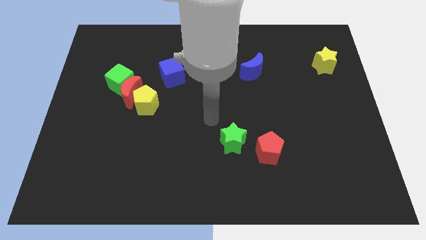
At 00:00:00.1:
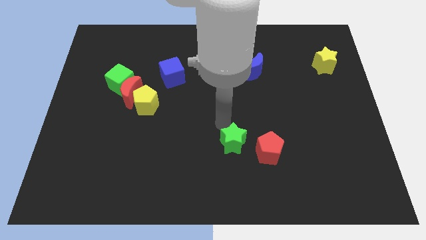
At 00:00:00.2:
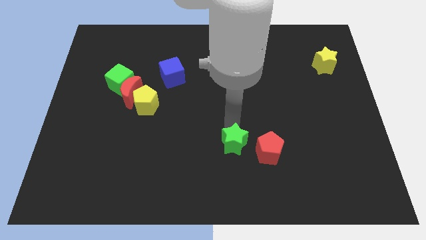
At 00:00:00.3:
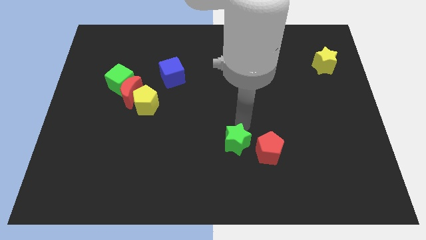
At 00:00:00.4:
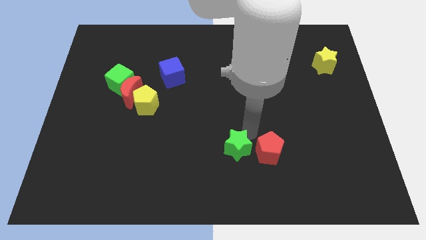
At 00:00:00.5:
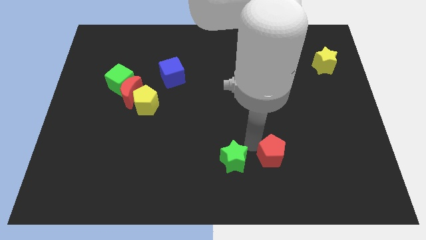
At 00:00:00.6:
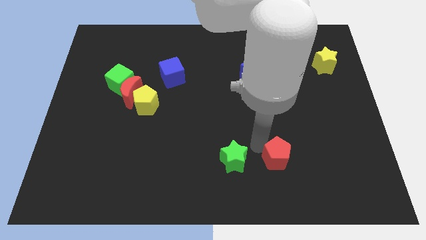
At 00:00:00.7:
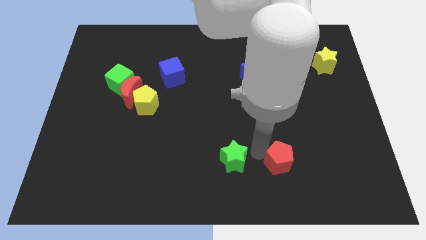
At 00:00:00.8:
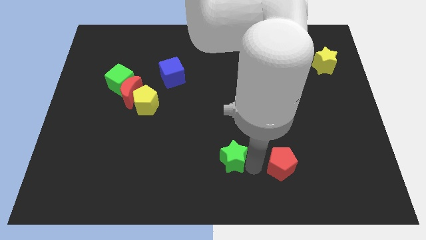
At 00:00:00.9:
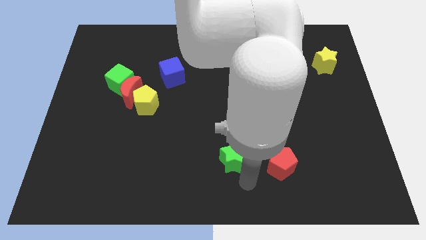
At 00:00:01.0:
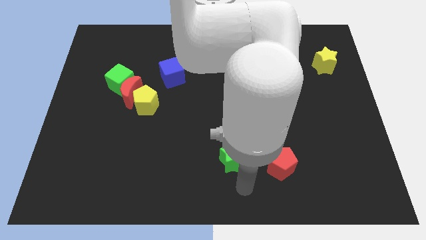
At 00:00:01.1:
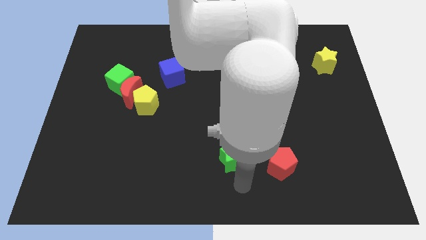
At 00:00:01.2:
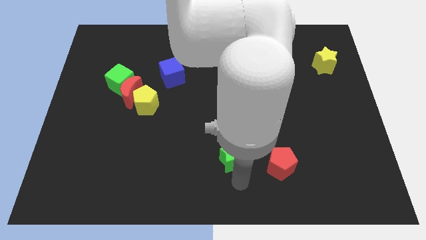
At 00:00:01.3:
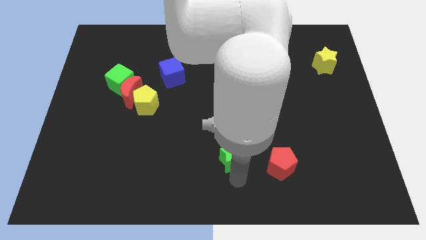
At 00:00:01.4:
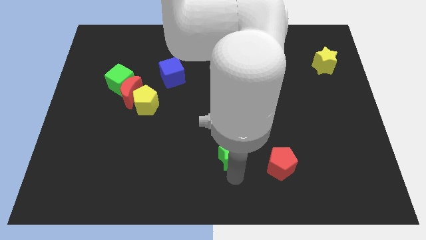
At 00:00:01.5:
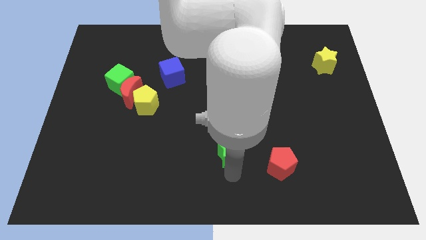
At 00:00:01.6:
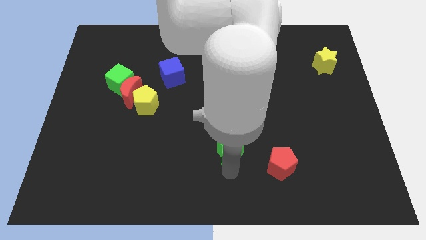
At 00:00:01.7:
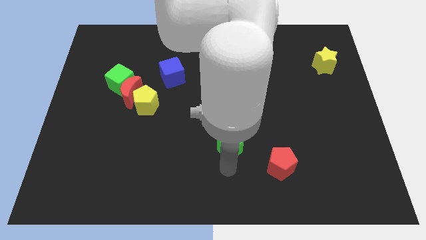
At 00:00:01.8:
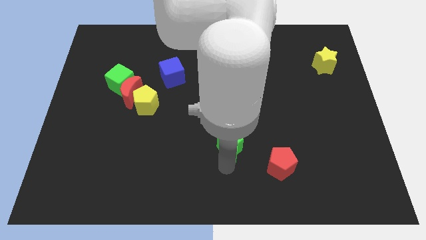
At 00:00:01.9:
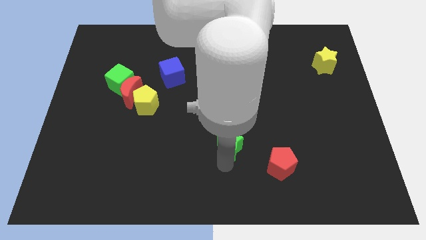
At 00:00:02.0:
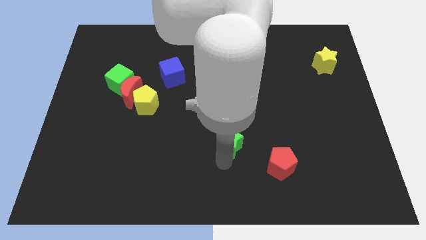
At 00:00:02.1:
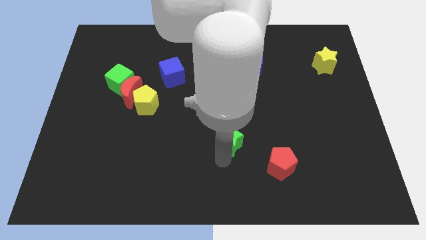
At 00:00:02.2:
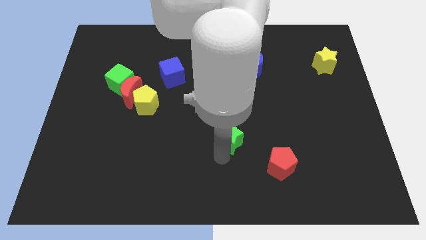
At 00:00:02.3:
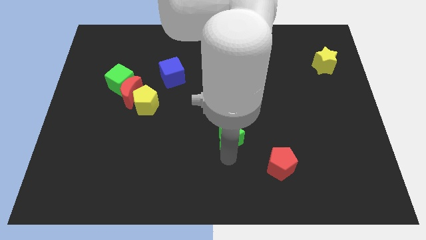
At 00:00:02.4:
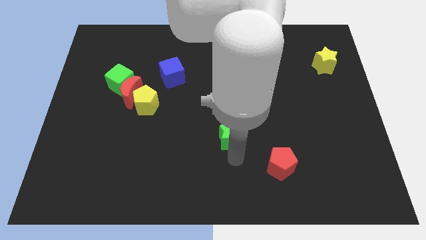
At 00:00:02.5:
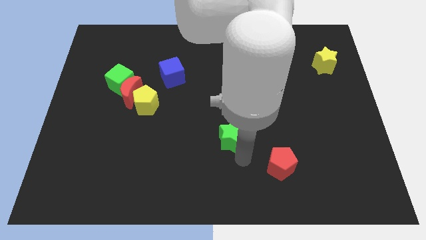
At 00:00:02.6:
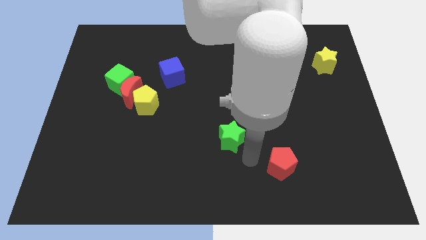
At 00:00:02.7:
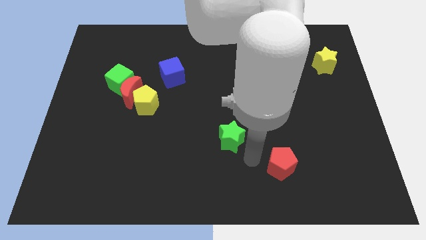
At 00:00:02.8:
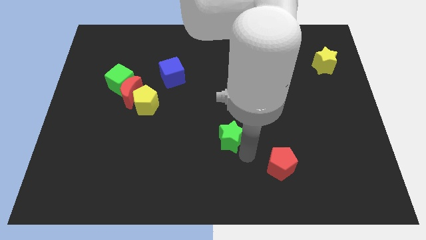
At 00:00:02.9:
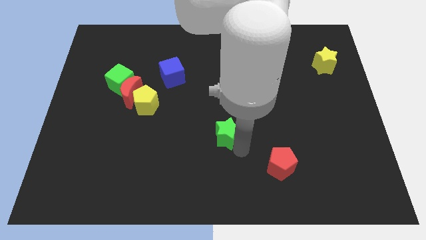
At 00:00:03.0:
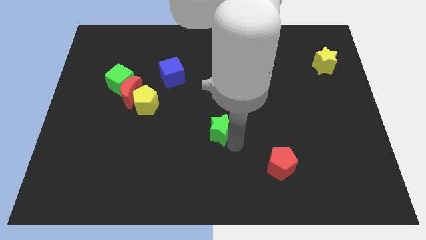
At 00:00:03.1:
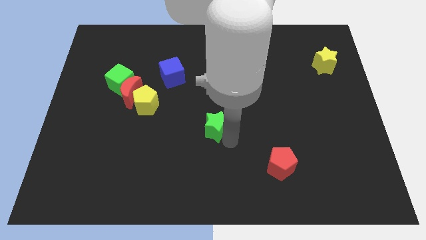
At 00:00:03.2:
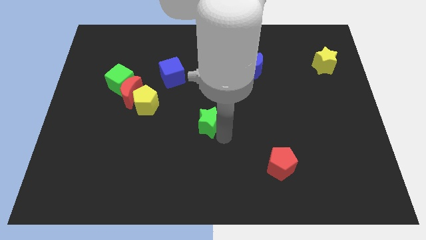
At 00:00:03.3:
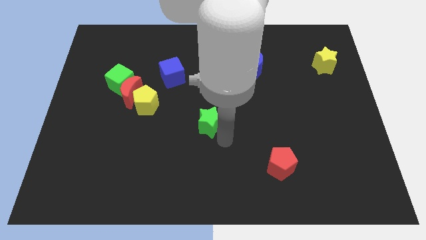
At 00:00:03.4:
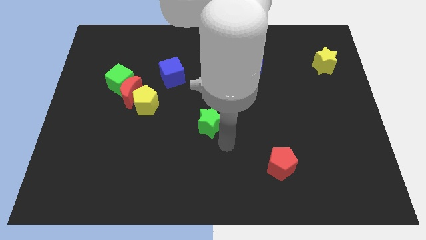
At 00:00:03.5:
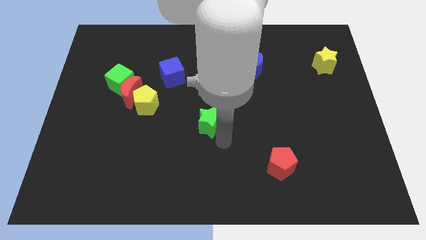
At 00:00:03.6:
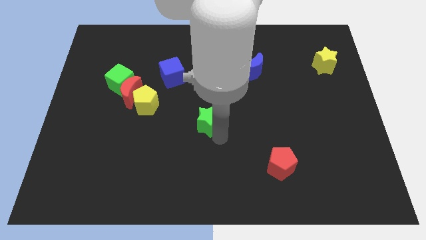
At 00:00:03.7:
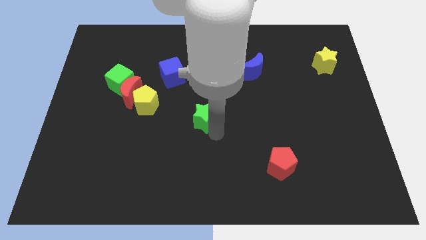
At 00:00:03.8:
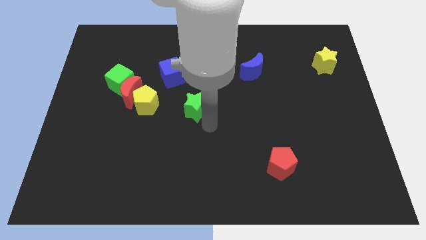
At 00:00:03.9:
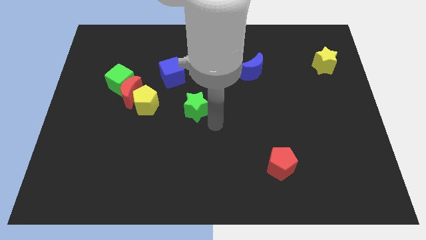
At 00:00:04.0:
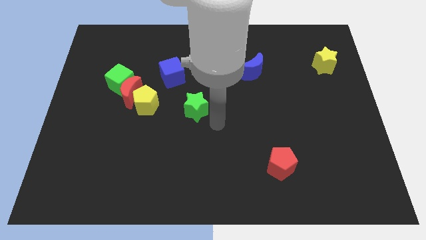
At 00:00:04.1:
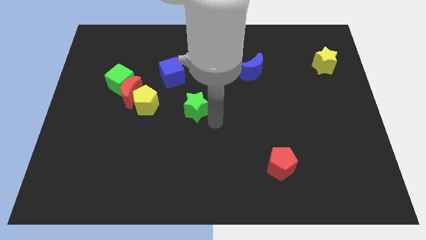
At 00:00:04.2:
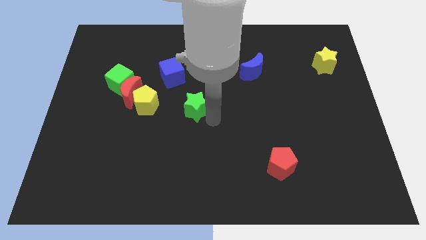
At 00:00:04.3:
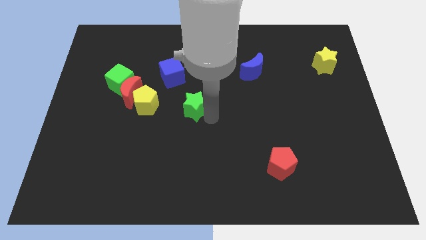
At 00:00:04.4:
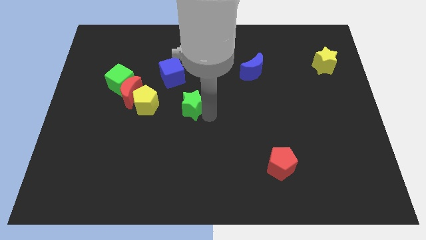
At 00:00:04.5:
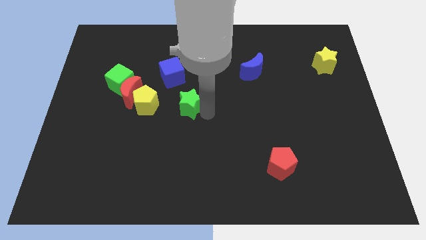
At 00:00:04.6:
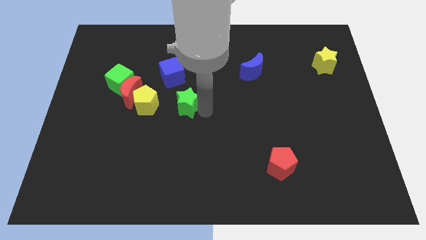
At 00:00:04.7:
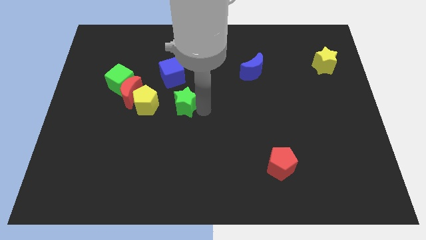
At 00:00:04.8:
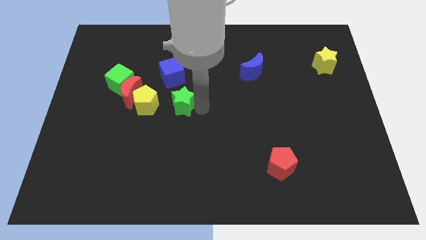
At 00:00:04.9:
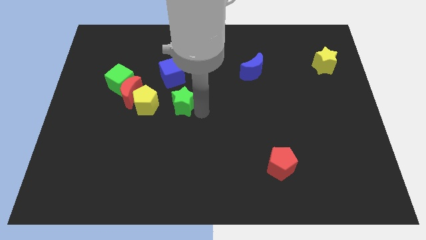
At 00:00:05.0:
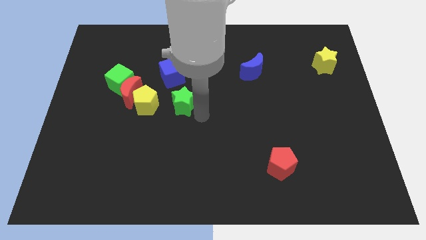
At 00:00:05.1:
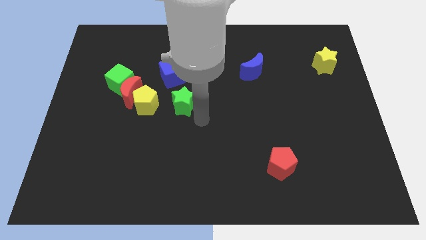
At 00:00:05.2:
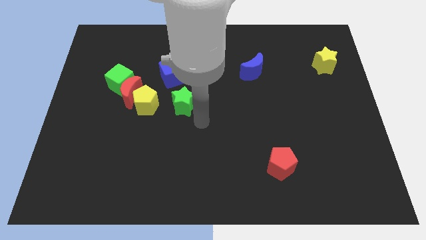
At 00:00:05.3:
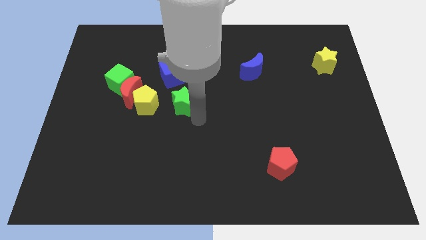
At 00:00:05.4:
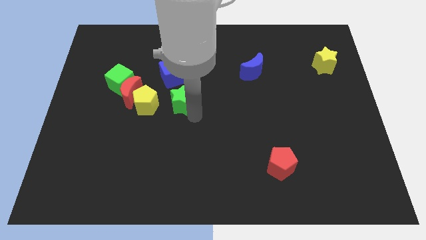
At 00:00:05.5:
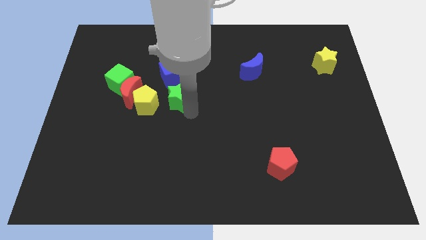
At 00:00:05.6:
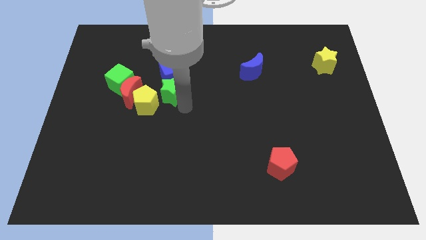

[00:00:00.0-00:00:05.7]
move the green star up and to the left

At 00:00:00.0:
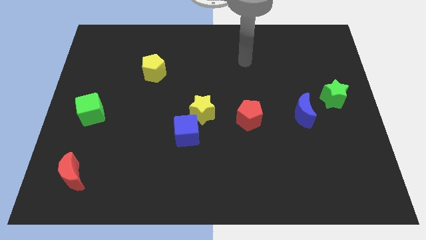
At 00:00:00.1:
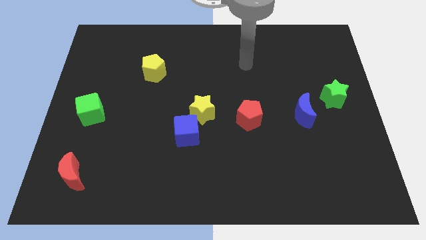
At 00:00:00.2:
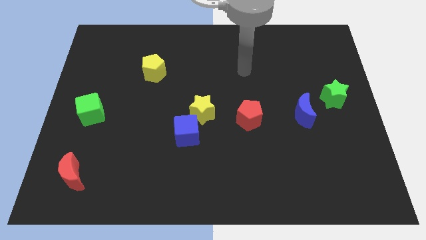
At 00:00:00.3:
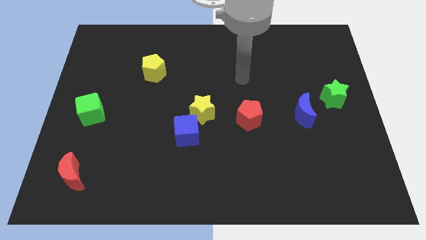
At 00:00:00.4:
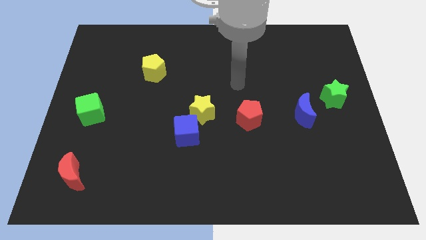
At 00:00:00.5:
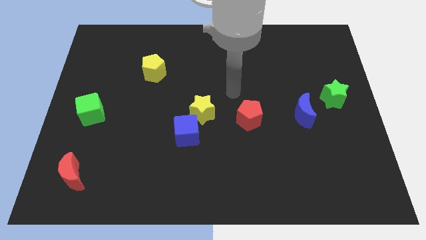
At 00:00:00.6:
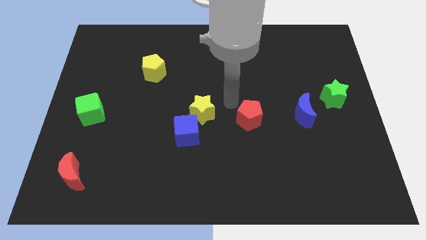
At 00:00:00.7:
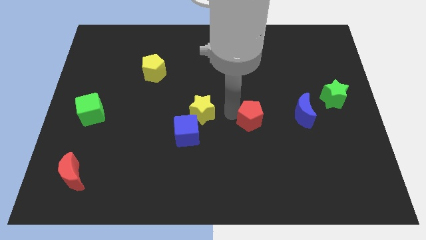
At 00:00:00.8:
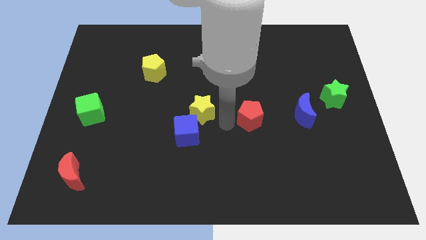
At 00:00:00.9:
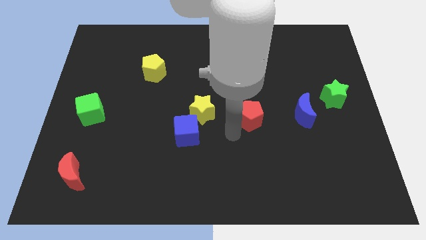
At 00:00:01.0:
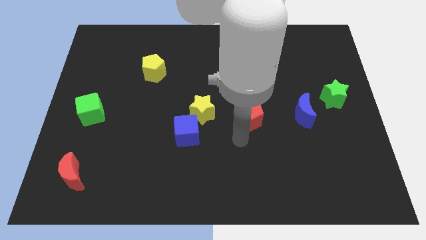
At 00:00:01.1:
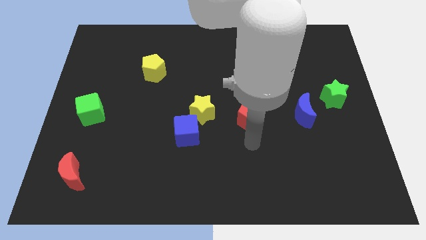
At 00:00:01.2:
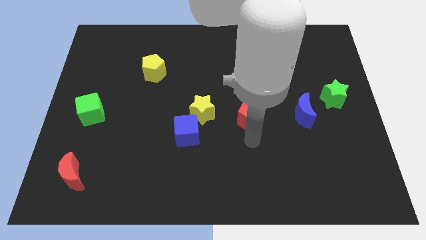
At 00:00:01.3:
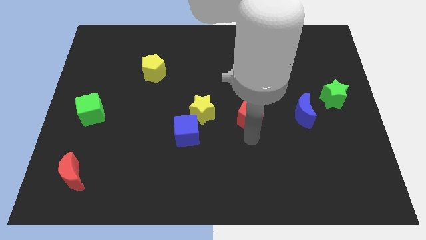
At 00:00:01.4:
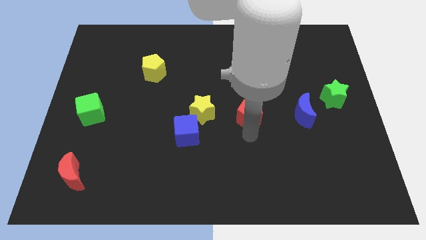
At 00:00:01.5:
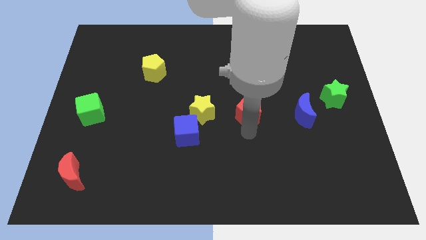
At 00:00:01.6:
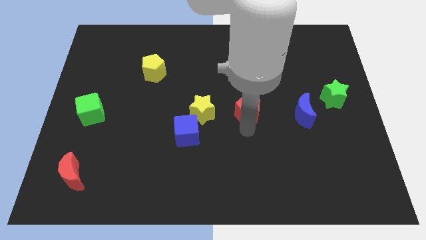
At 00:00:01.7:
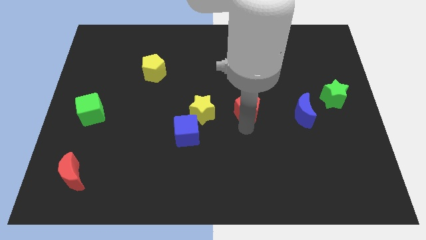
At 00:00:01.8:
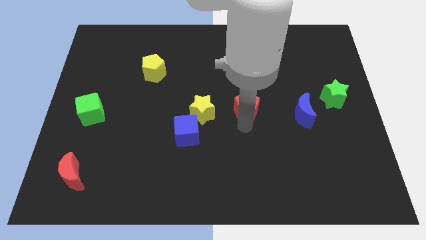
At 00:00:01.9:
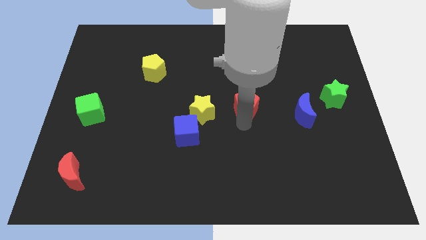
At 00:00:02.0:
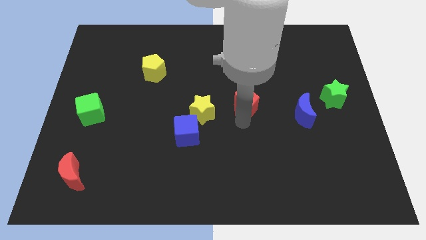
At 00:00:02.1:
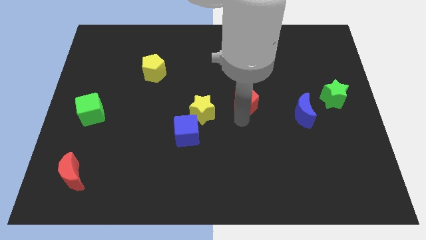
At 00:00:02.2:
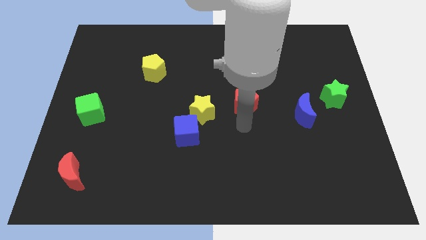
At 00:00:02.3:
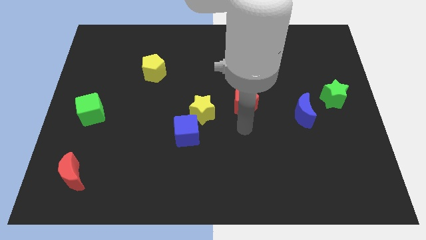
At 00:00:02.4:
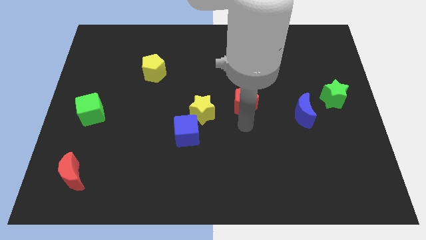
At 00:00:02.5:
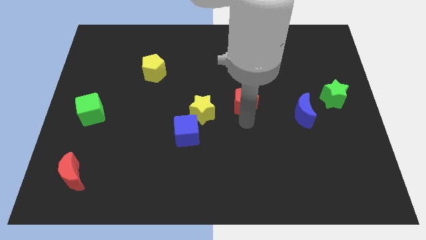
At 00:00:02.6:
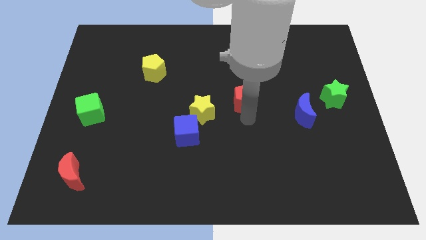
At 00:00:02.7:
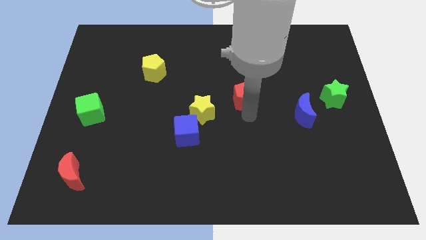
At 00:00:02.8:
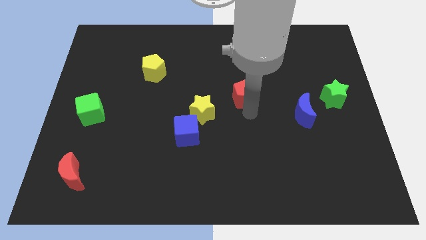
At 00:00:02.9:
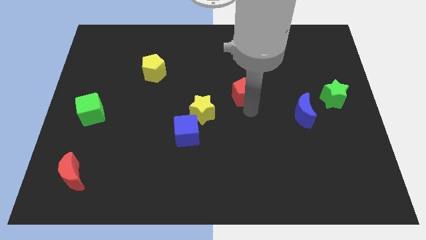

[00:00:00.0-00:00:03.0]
slightly push the red pentagon up
